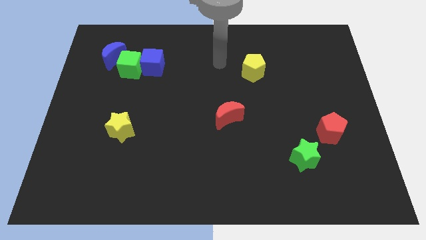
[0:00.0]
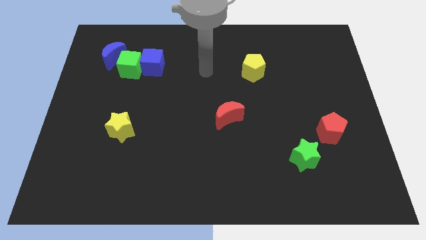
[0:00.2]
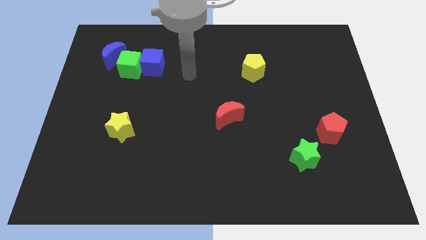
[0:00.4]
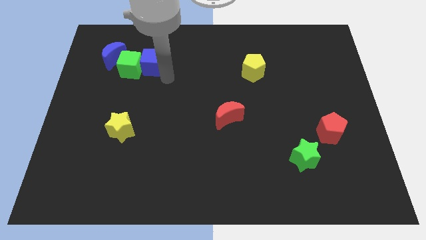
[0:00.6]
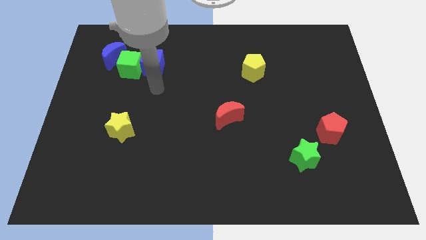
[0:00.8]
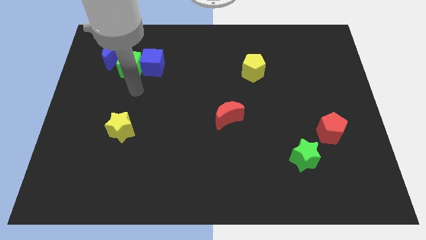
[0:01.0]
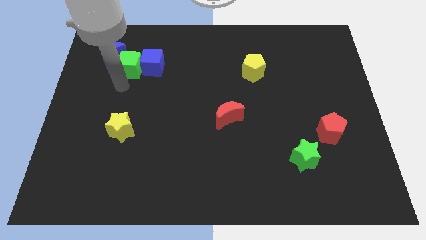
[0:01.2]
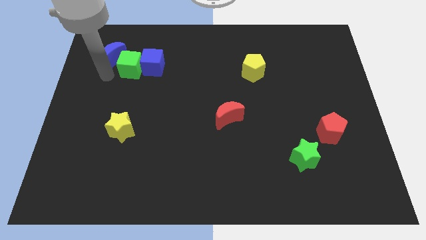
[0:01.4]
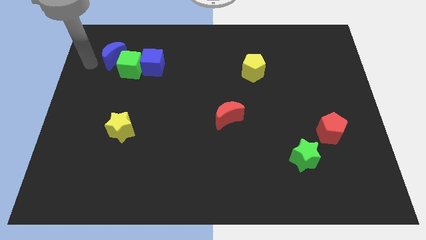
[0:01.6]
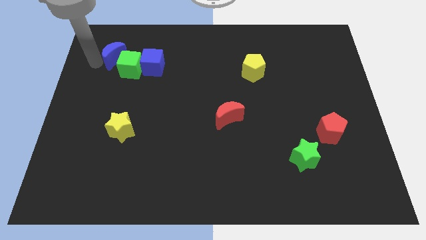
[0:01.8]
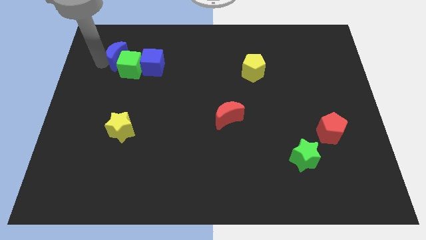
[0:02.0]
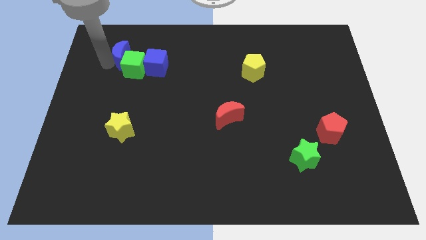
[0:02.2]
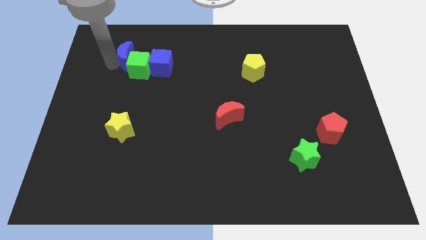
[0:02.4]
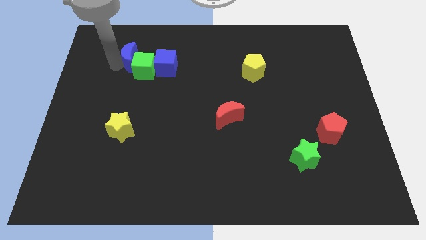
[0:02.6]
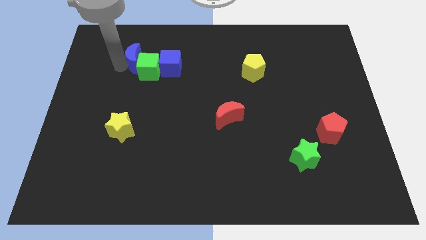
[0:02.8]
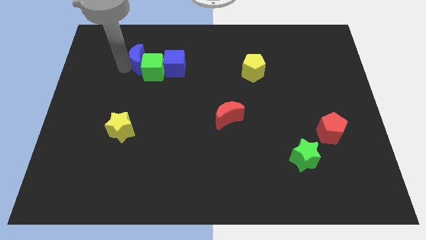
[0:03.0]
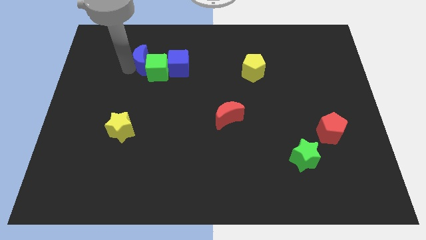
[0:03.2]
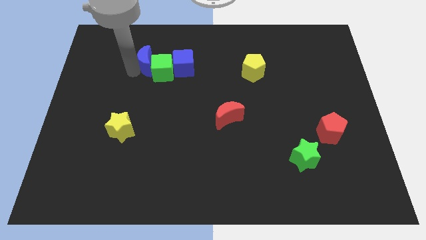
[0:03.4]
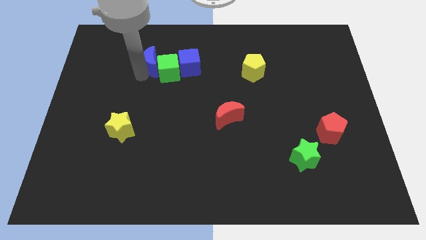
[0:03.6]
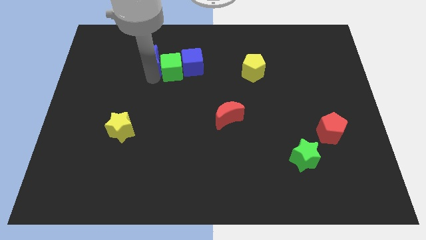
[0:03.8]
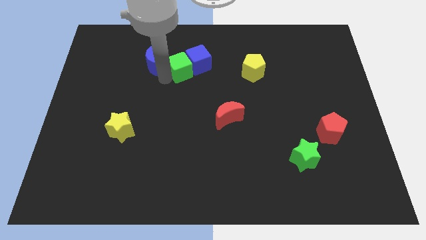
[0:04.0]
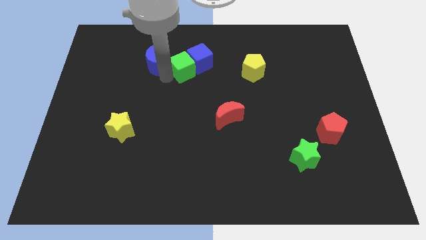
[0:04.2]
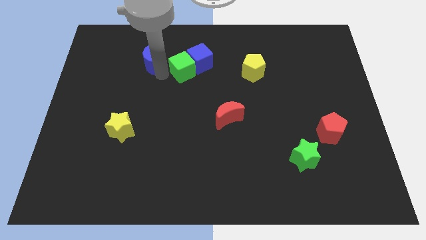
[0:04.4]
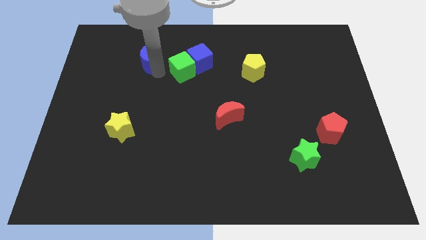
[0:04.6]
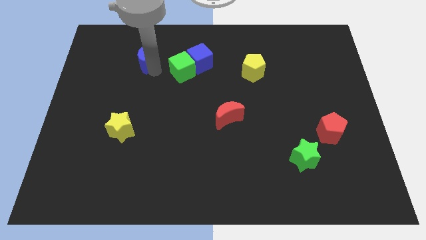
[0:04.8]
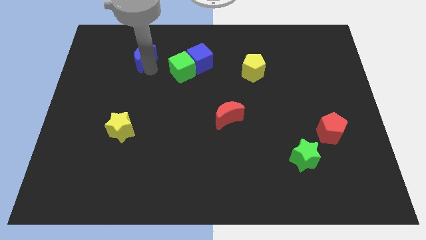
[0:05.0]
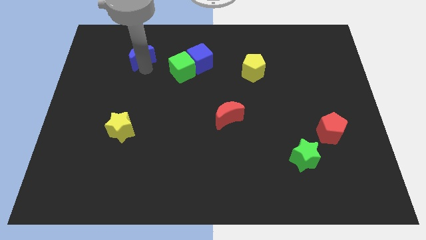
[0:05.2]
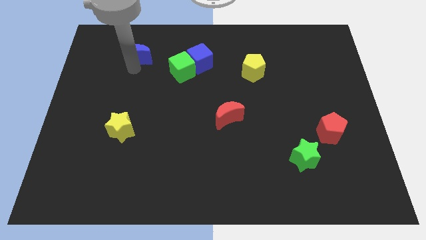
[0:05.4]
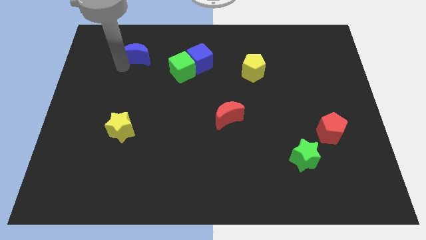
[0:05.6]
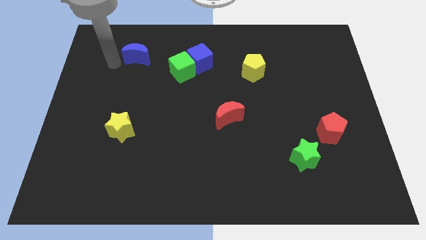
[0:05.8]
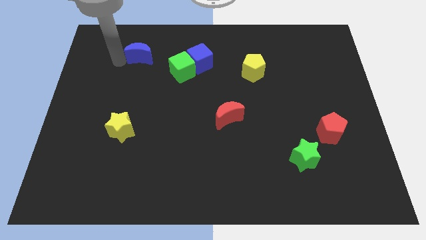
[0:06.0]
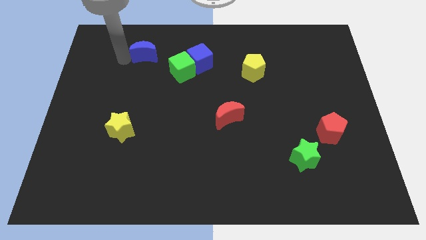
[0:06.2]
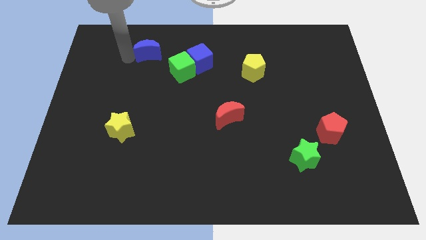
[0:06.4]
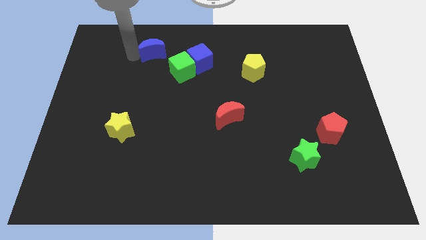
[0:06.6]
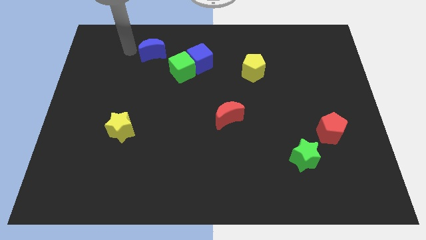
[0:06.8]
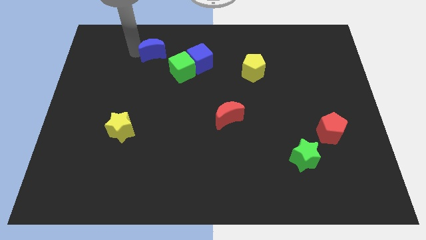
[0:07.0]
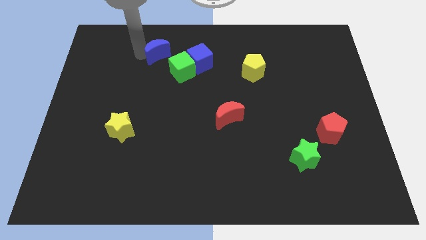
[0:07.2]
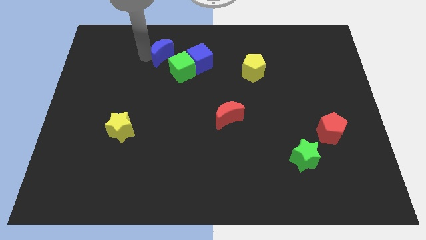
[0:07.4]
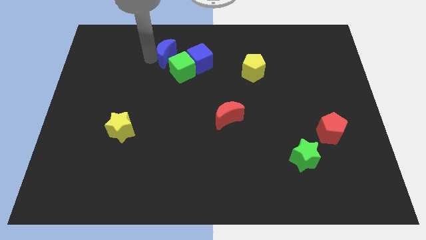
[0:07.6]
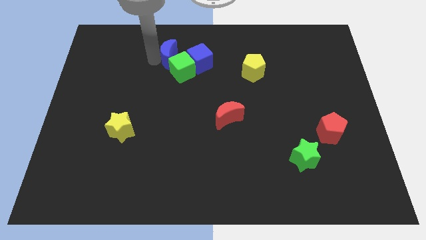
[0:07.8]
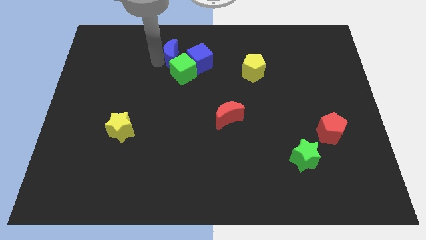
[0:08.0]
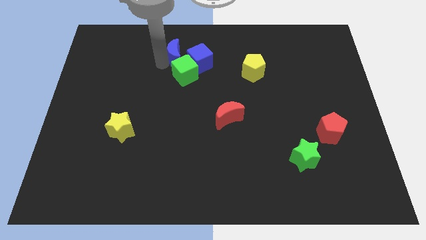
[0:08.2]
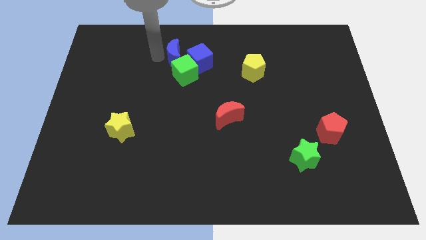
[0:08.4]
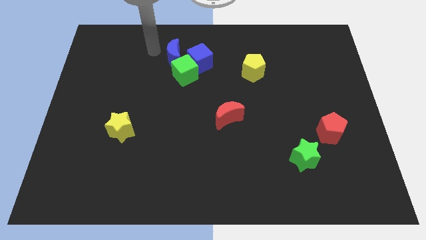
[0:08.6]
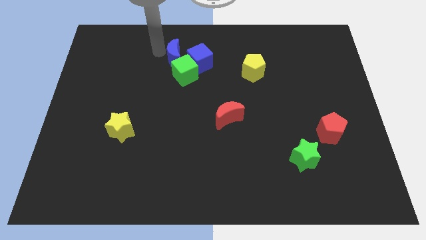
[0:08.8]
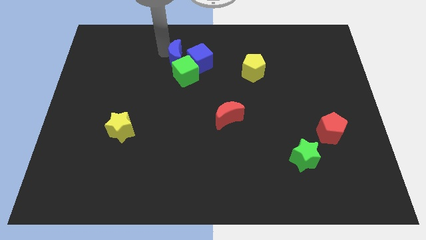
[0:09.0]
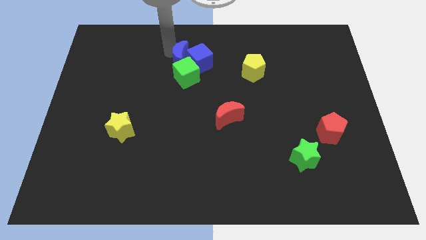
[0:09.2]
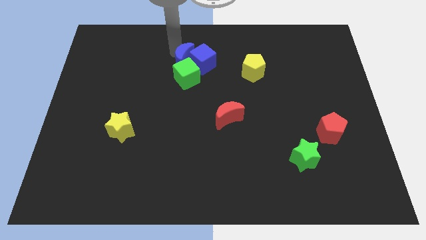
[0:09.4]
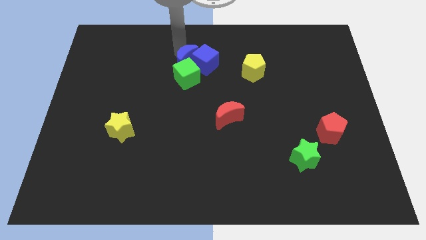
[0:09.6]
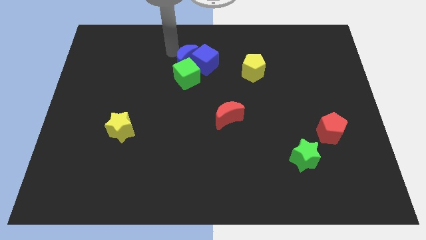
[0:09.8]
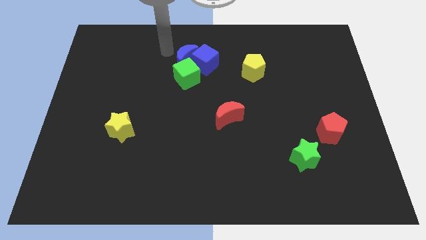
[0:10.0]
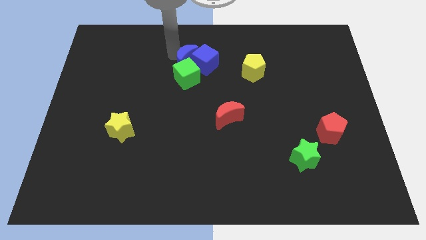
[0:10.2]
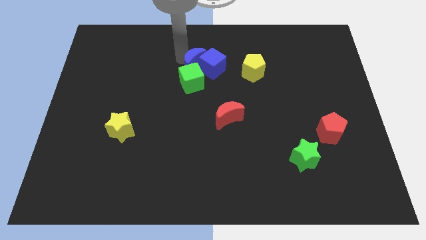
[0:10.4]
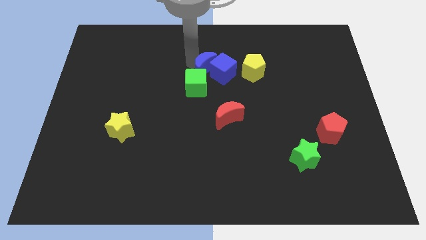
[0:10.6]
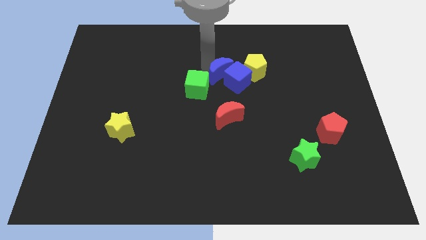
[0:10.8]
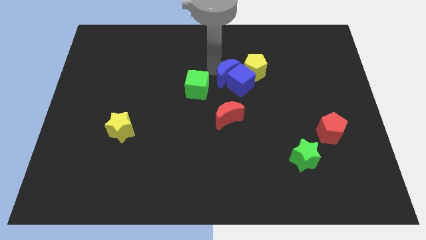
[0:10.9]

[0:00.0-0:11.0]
put the blue moon diagonally down and to the left of the yellow pentagon

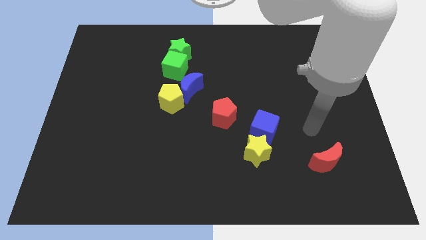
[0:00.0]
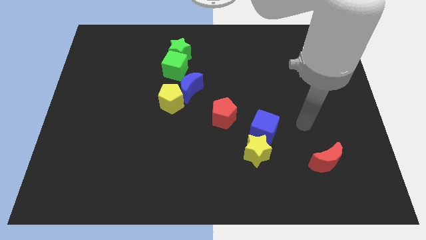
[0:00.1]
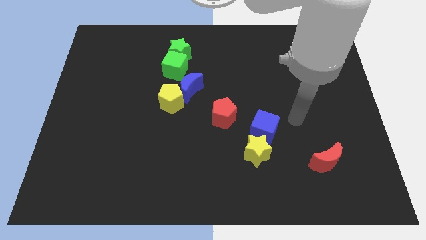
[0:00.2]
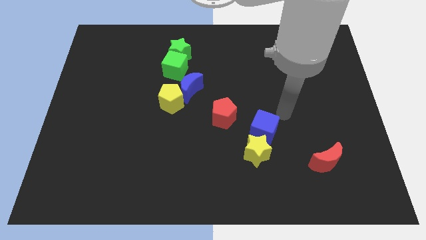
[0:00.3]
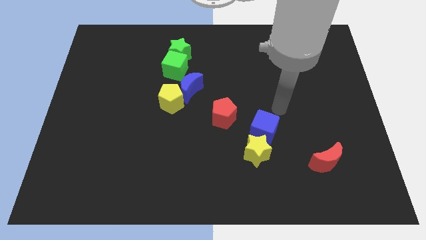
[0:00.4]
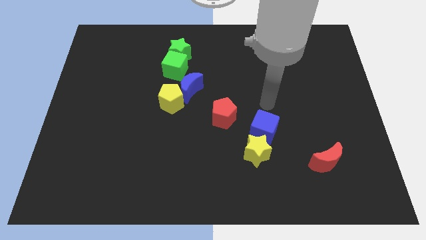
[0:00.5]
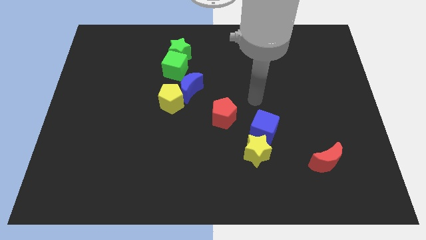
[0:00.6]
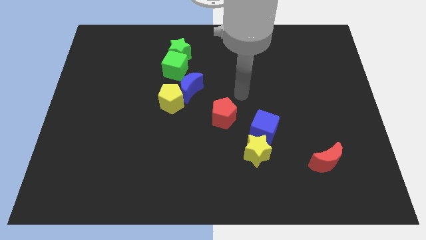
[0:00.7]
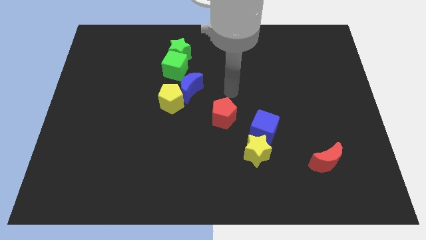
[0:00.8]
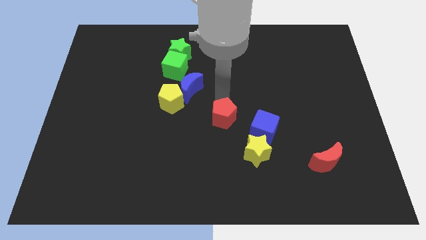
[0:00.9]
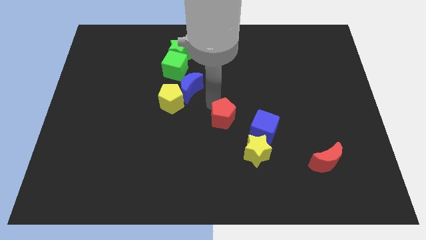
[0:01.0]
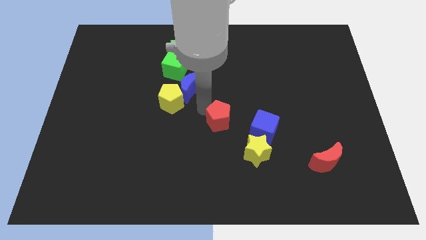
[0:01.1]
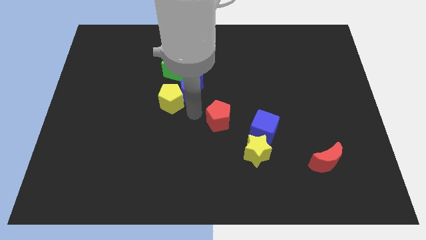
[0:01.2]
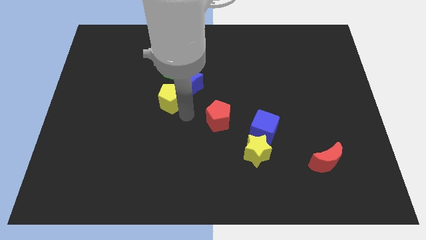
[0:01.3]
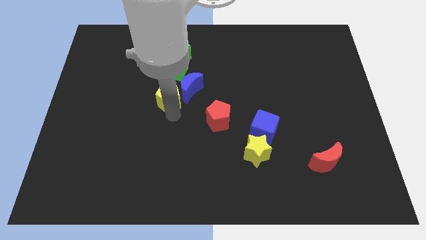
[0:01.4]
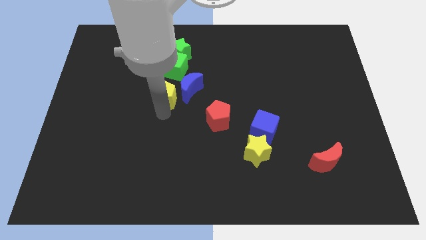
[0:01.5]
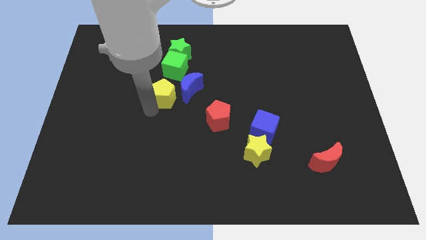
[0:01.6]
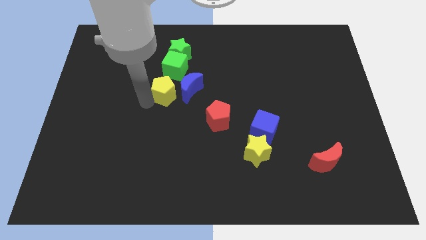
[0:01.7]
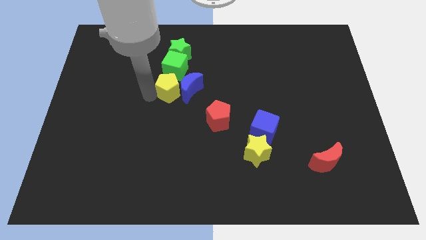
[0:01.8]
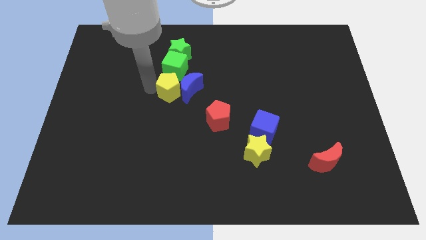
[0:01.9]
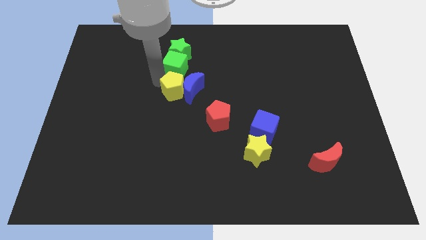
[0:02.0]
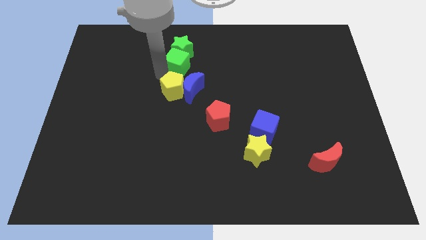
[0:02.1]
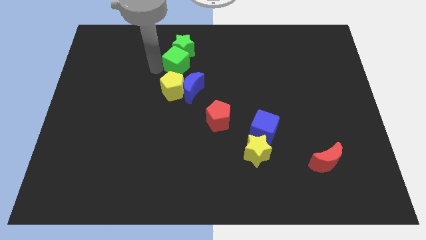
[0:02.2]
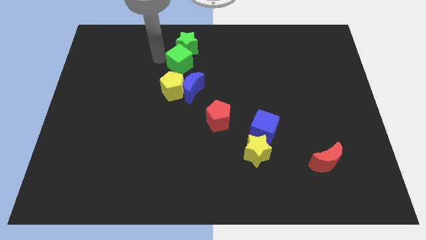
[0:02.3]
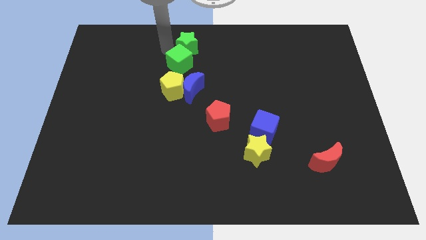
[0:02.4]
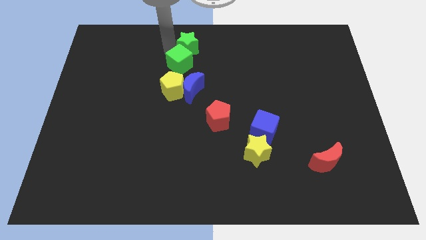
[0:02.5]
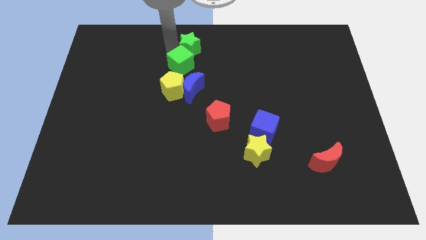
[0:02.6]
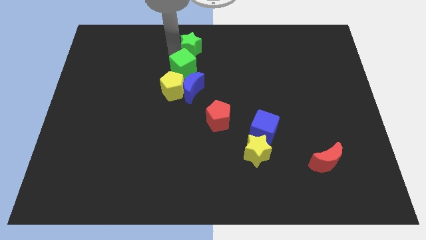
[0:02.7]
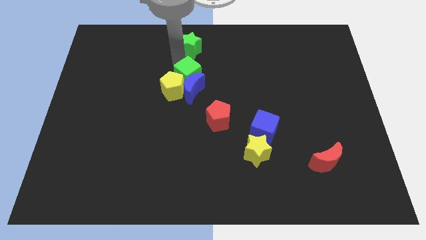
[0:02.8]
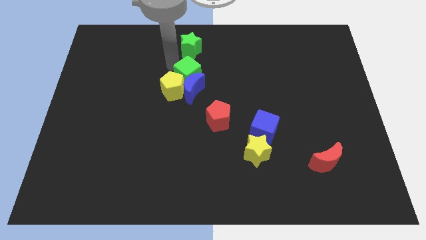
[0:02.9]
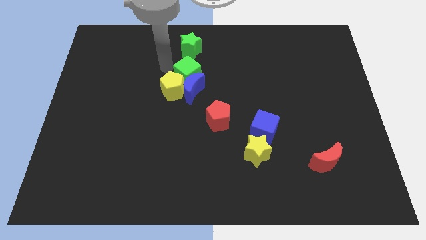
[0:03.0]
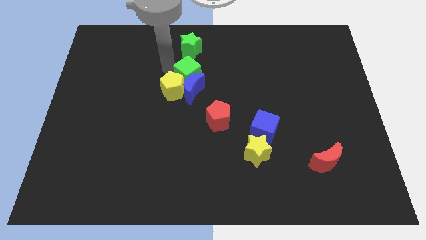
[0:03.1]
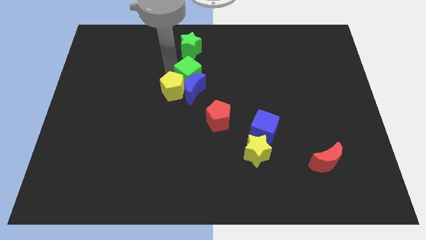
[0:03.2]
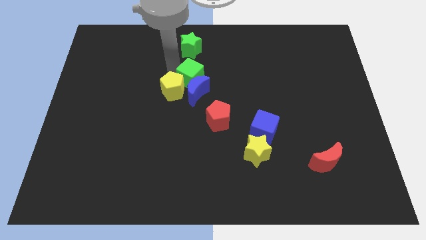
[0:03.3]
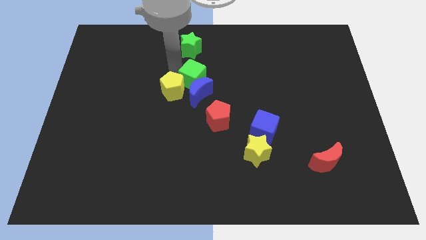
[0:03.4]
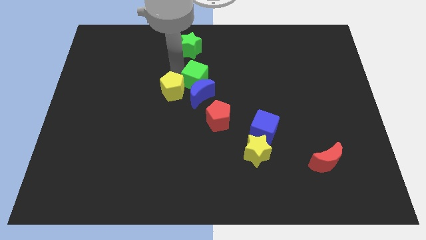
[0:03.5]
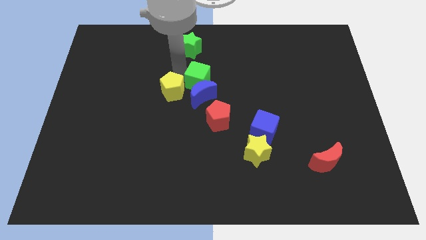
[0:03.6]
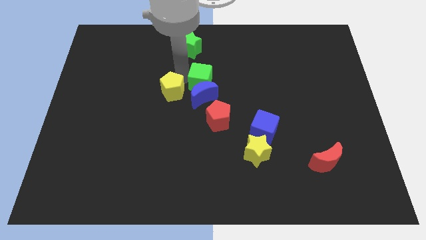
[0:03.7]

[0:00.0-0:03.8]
move the green cube above the red pentagon
